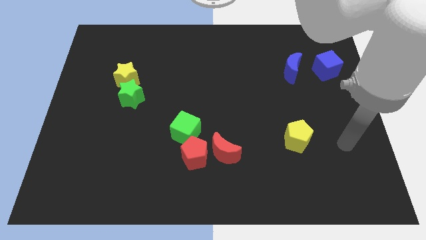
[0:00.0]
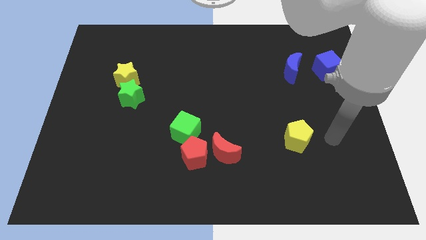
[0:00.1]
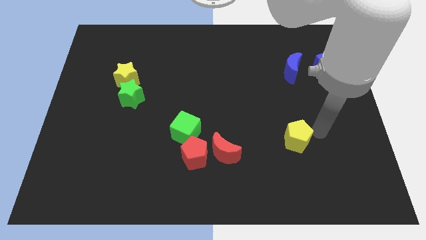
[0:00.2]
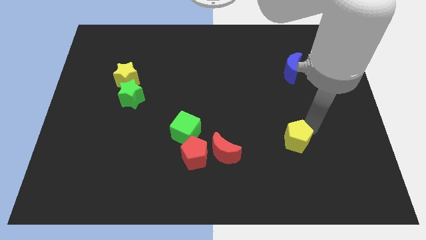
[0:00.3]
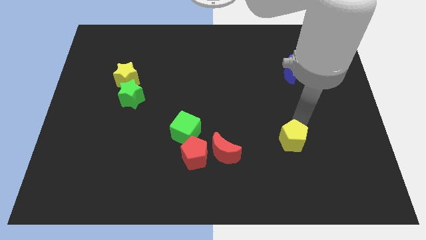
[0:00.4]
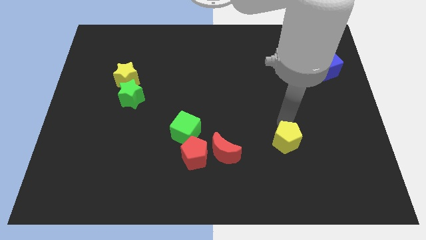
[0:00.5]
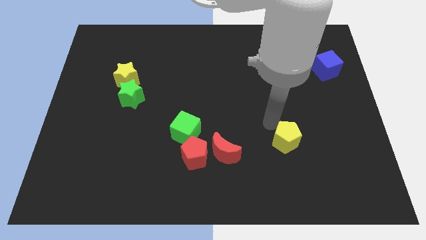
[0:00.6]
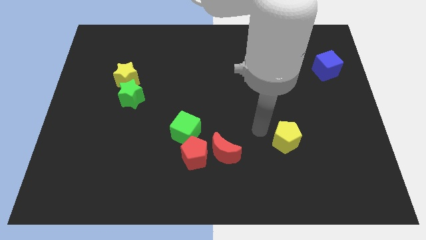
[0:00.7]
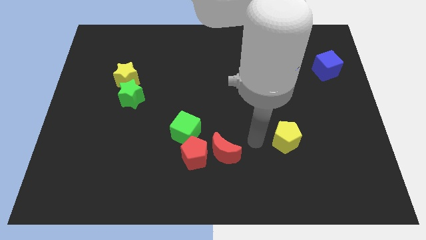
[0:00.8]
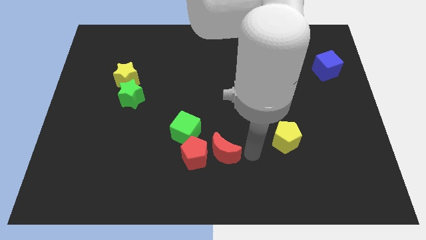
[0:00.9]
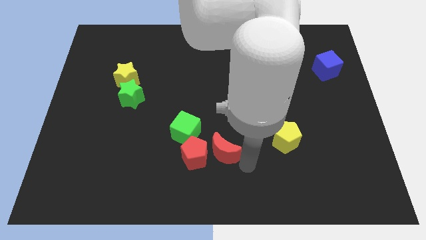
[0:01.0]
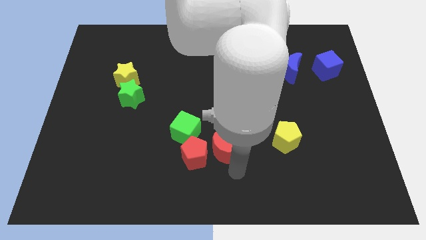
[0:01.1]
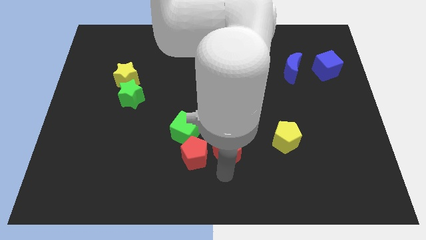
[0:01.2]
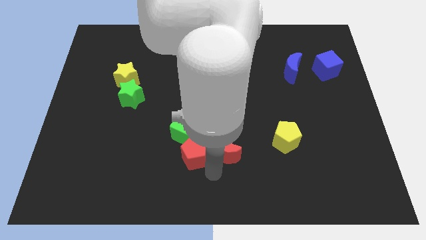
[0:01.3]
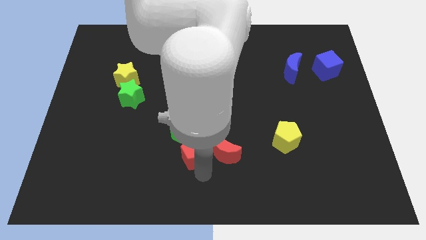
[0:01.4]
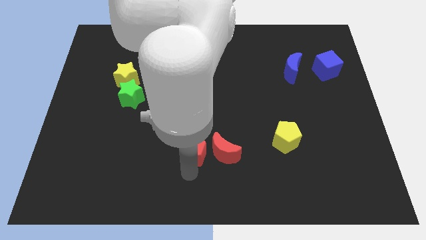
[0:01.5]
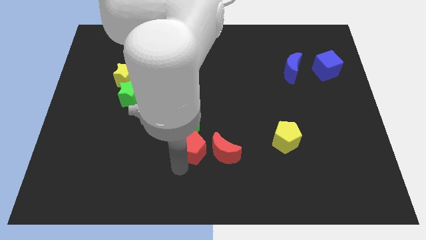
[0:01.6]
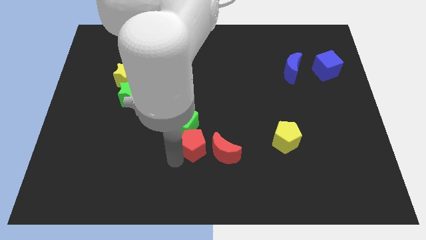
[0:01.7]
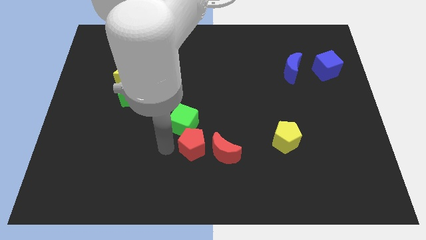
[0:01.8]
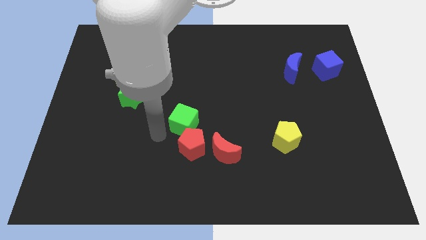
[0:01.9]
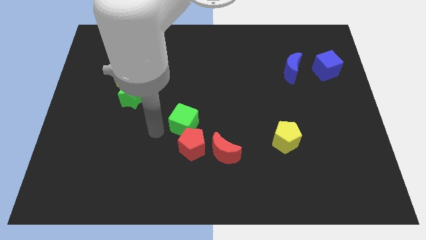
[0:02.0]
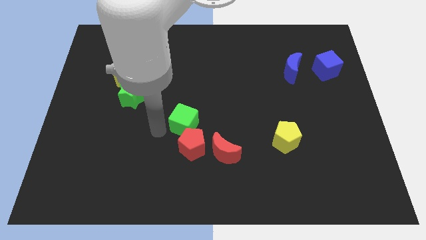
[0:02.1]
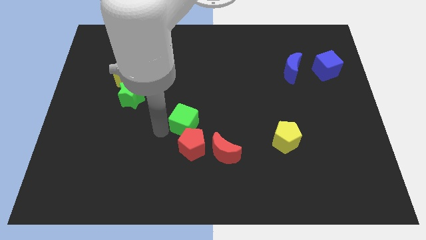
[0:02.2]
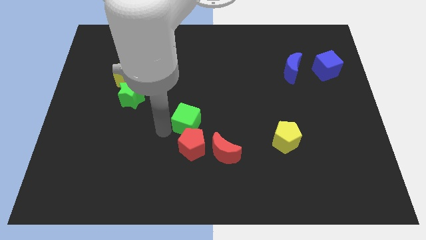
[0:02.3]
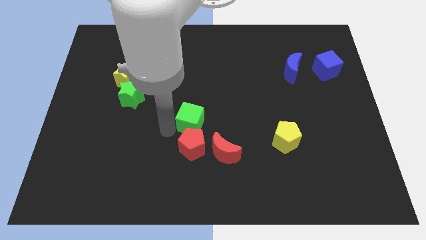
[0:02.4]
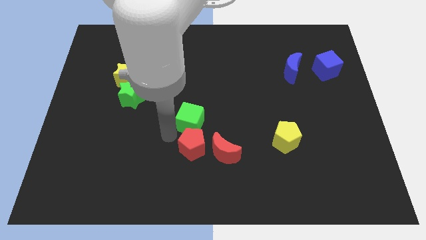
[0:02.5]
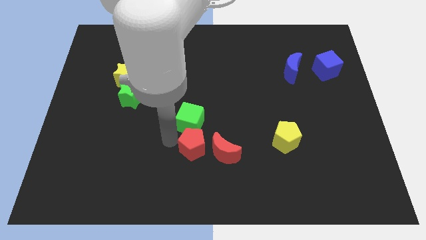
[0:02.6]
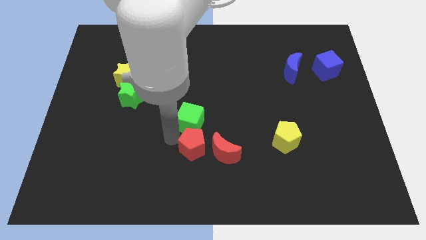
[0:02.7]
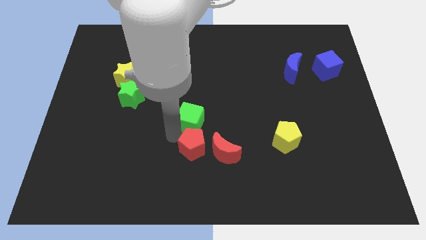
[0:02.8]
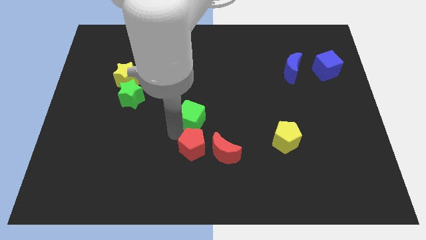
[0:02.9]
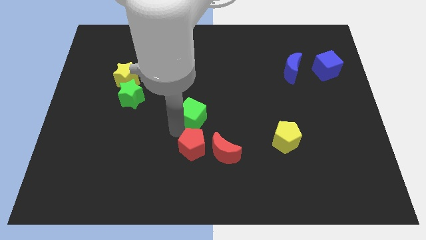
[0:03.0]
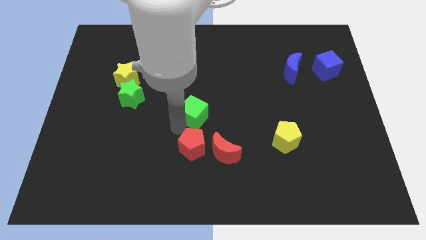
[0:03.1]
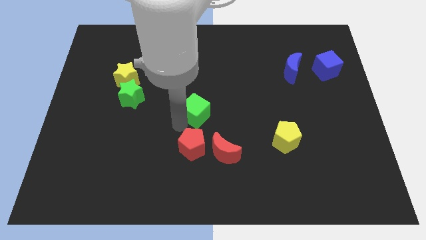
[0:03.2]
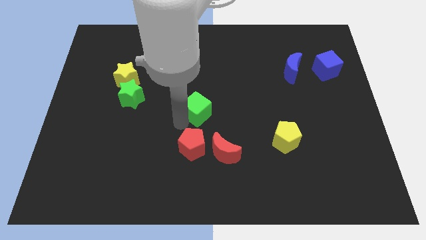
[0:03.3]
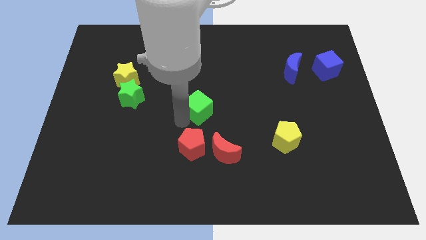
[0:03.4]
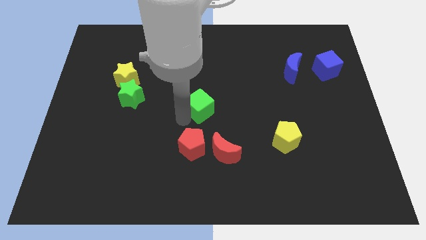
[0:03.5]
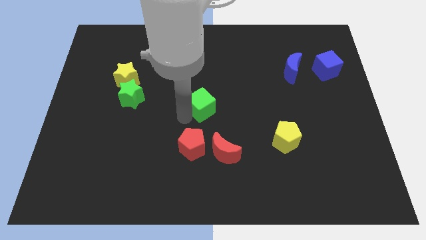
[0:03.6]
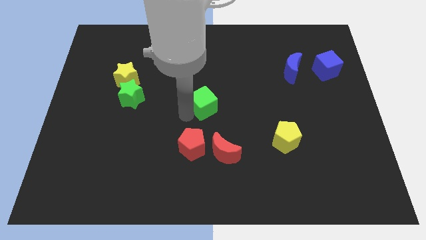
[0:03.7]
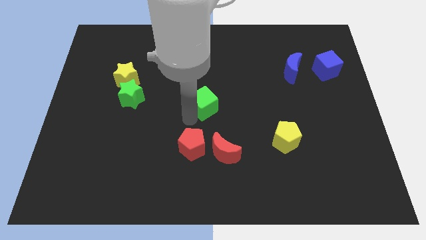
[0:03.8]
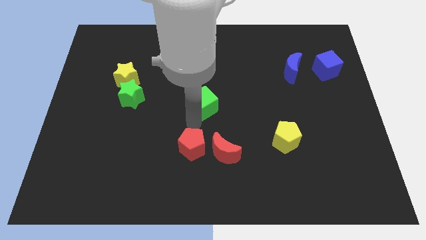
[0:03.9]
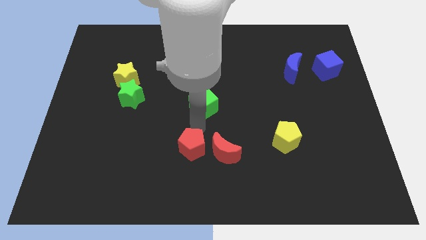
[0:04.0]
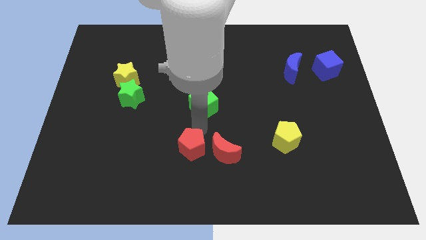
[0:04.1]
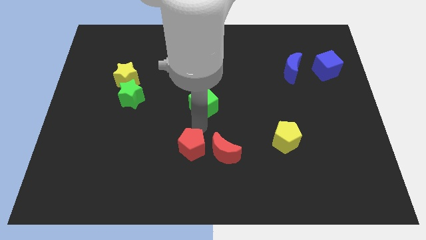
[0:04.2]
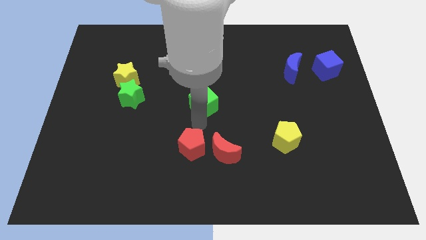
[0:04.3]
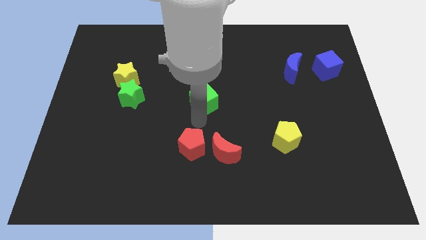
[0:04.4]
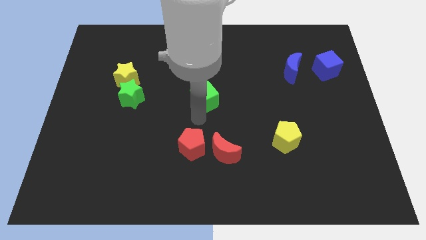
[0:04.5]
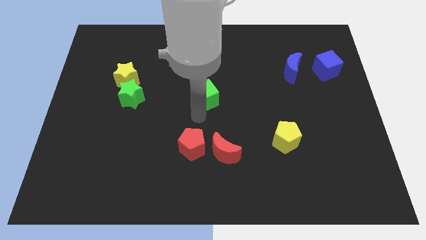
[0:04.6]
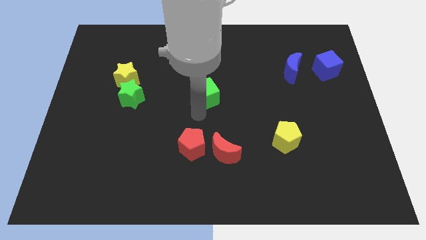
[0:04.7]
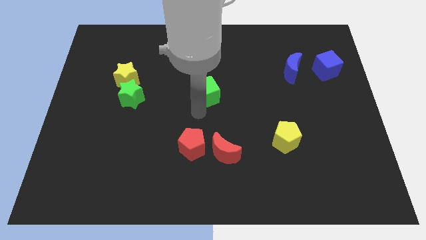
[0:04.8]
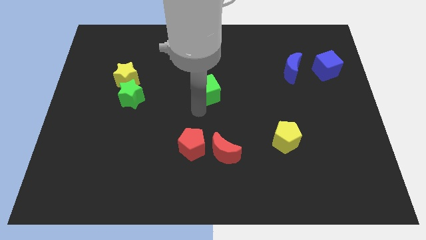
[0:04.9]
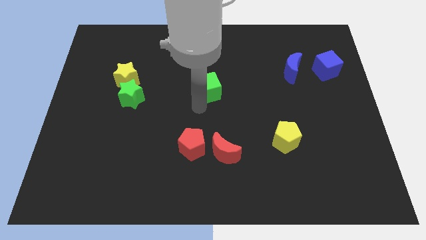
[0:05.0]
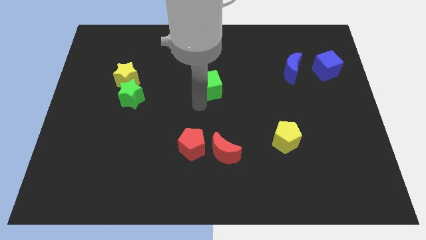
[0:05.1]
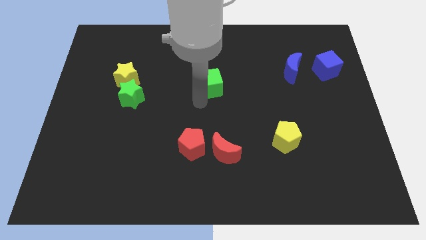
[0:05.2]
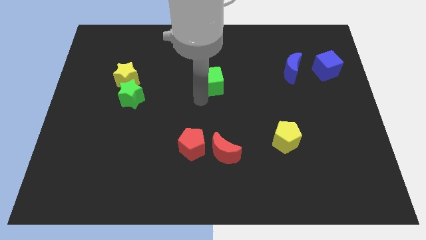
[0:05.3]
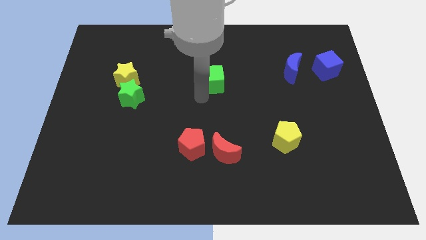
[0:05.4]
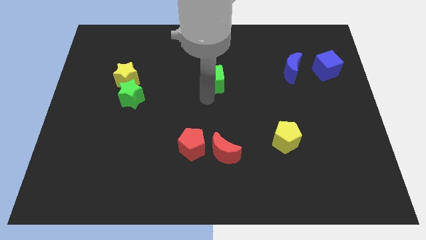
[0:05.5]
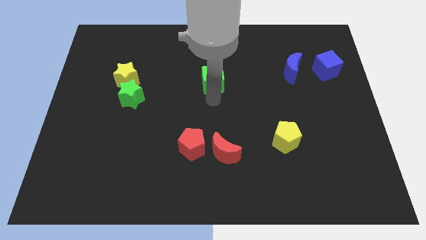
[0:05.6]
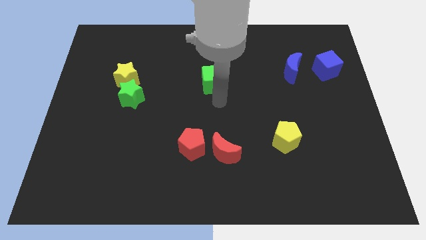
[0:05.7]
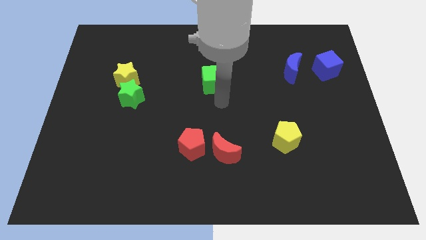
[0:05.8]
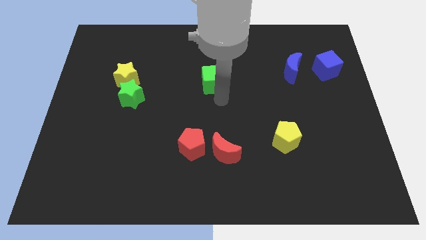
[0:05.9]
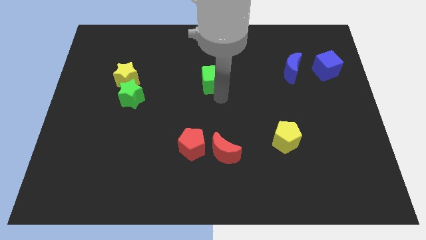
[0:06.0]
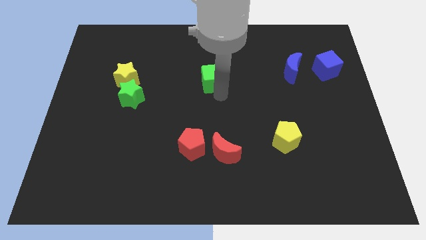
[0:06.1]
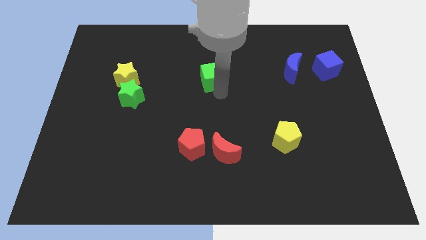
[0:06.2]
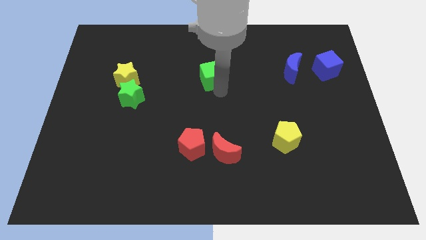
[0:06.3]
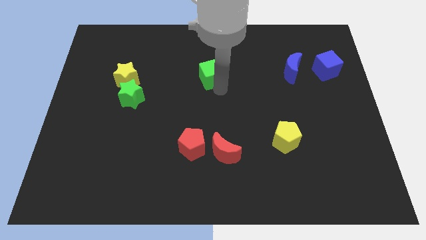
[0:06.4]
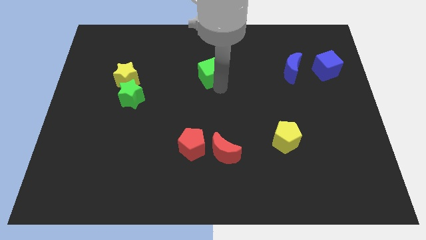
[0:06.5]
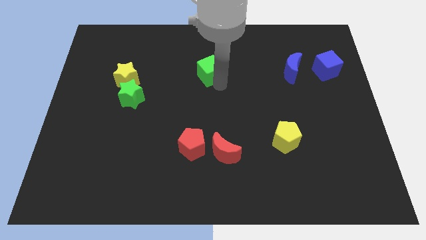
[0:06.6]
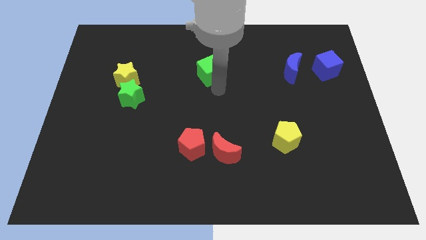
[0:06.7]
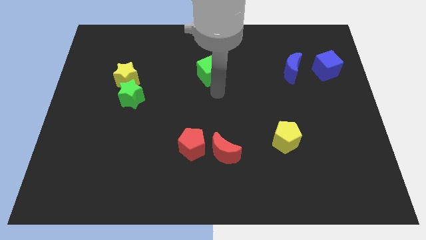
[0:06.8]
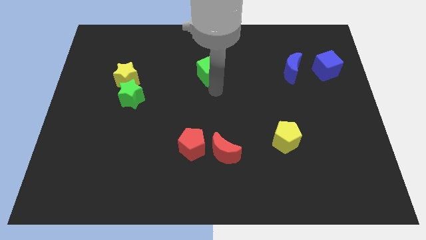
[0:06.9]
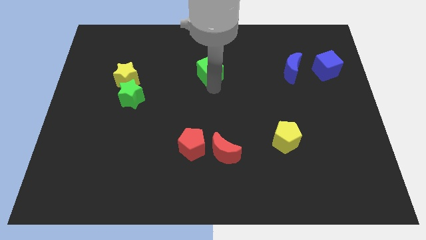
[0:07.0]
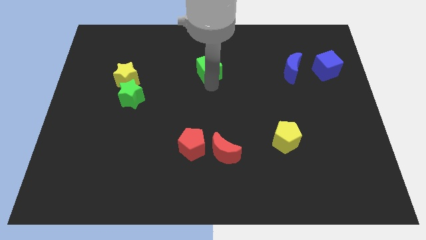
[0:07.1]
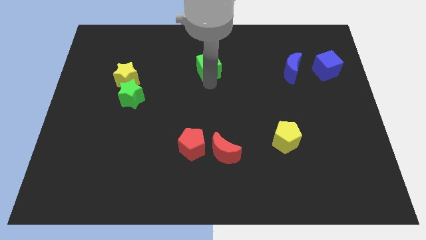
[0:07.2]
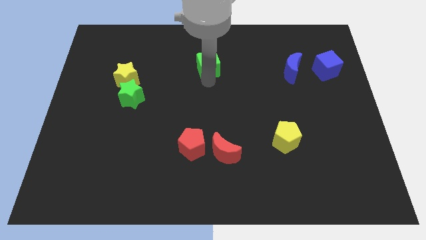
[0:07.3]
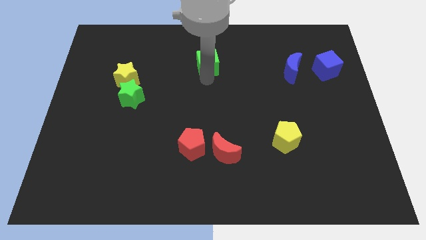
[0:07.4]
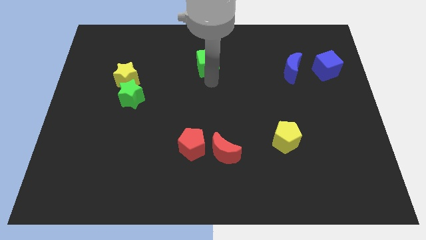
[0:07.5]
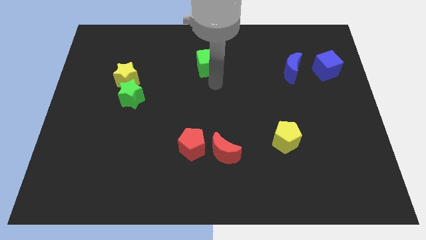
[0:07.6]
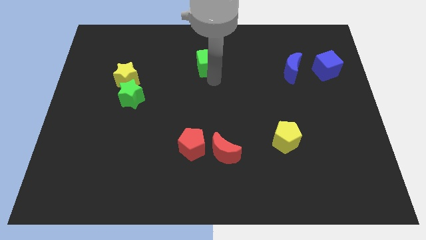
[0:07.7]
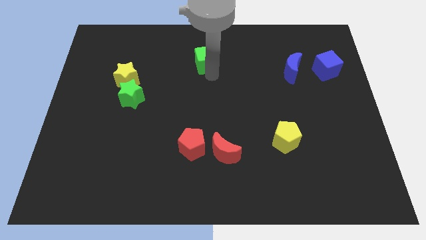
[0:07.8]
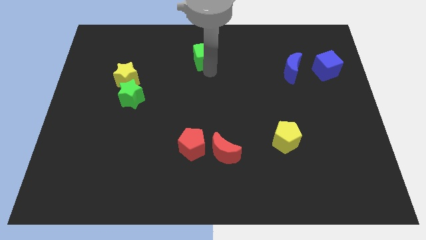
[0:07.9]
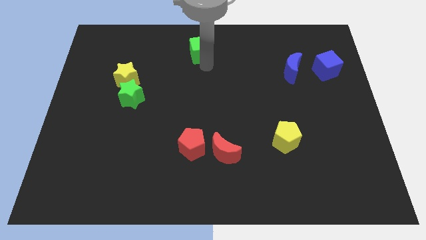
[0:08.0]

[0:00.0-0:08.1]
move the green cube to the top side

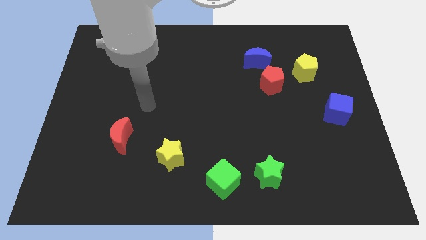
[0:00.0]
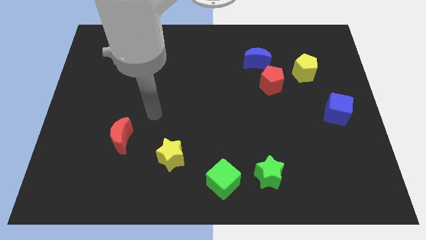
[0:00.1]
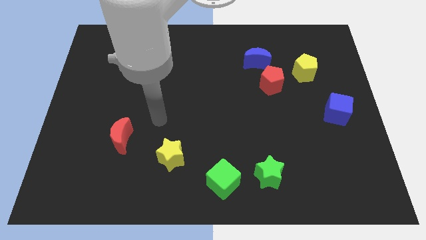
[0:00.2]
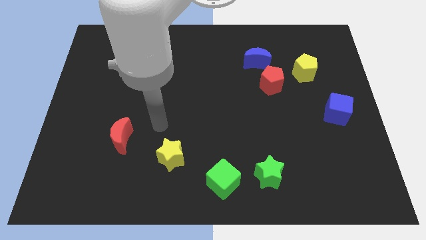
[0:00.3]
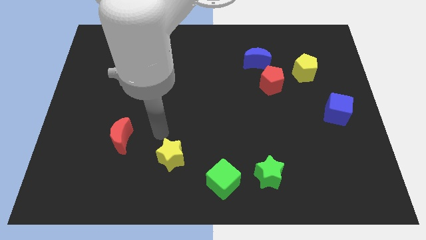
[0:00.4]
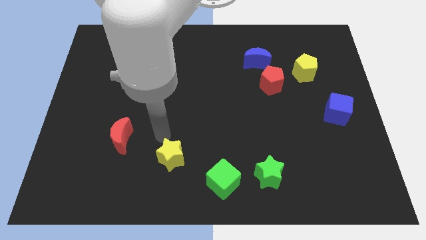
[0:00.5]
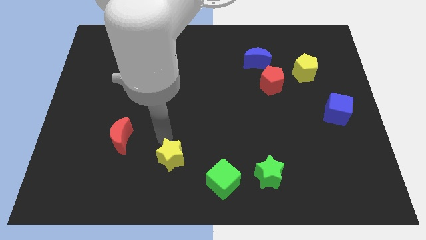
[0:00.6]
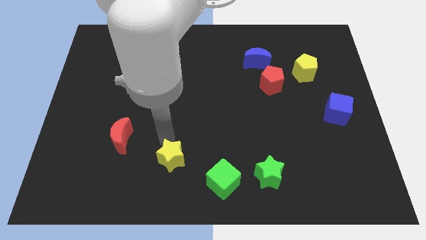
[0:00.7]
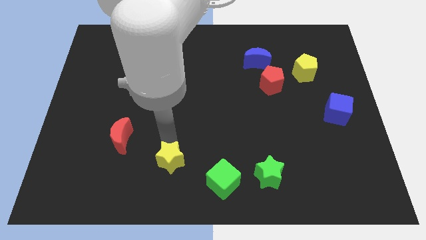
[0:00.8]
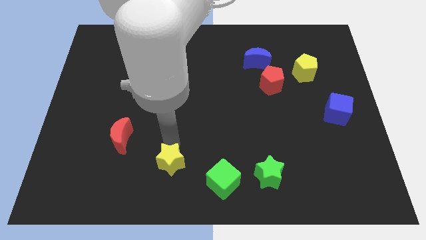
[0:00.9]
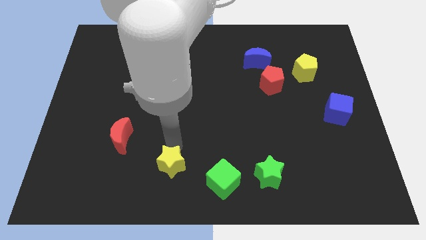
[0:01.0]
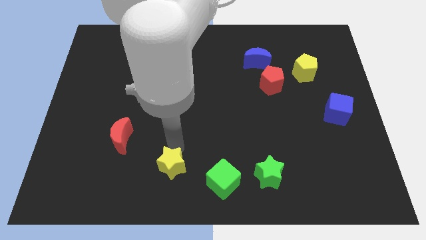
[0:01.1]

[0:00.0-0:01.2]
slide the yellow star to the bottom side
